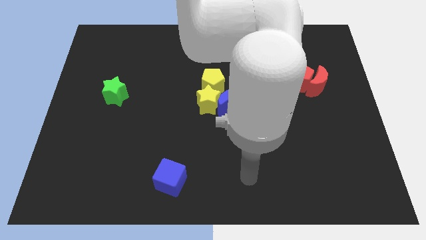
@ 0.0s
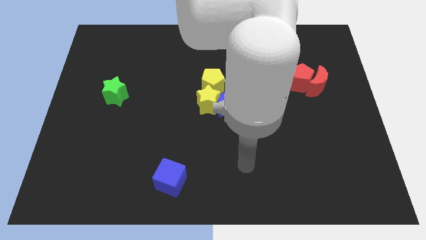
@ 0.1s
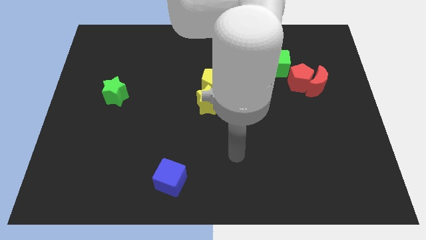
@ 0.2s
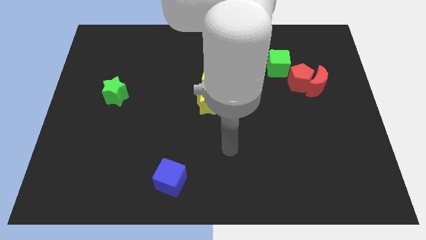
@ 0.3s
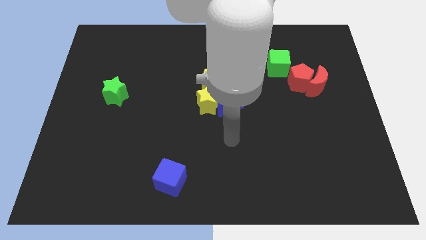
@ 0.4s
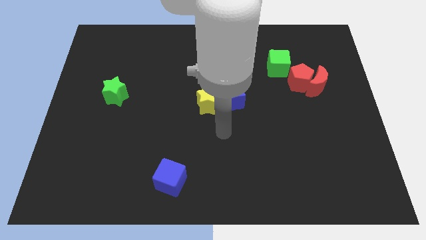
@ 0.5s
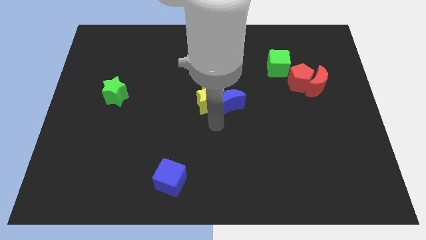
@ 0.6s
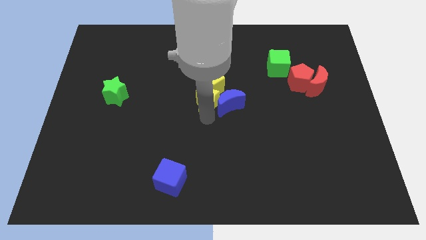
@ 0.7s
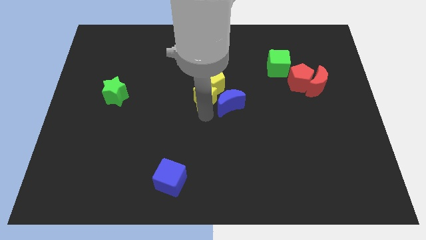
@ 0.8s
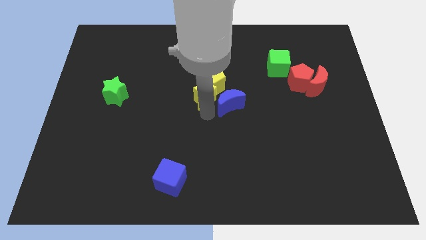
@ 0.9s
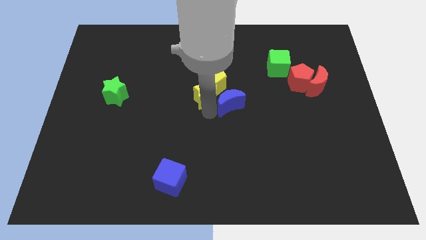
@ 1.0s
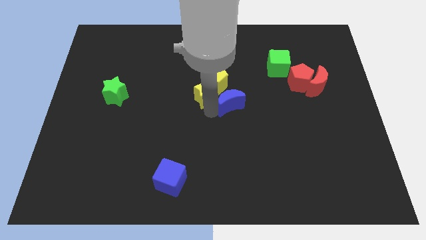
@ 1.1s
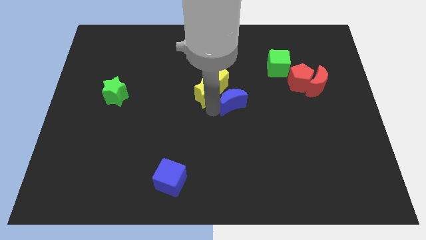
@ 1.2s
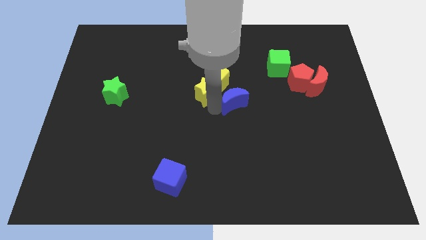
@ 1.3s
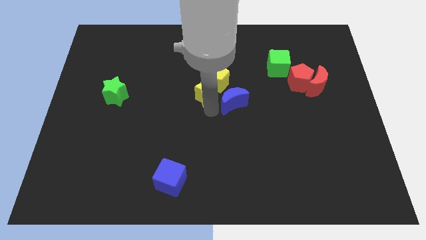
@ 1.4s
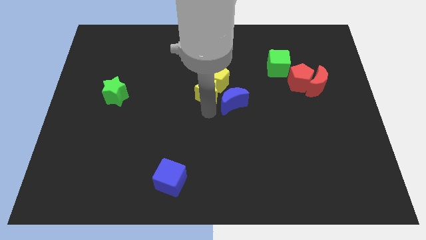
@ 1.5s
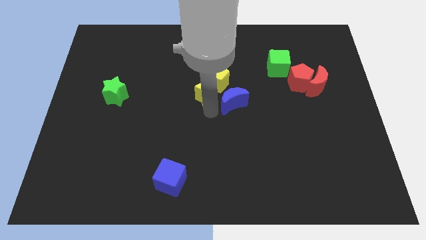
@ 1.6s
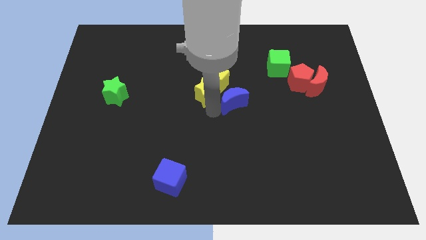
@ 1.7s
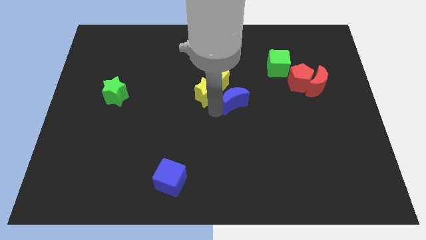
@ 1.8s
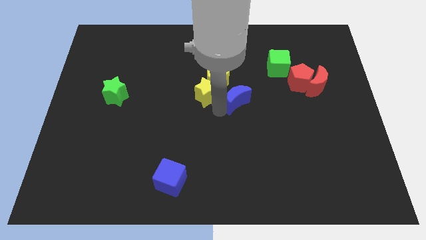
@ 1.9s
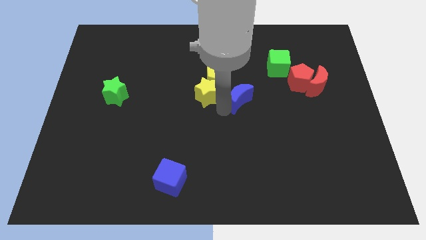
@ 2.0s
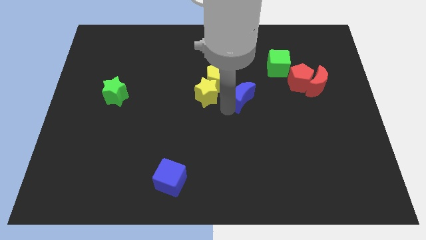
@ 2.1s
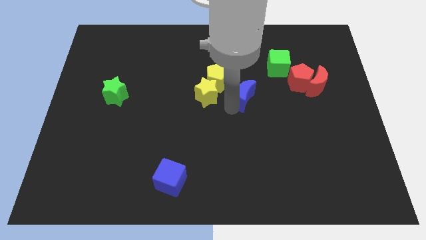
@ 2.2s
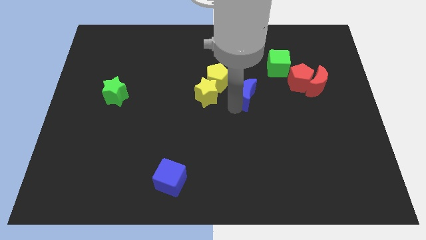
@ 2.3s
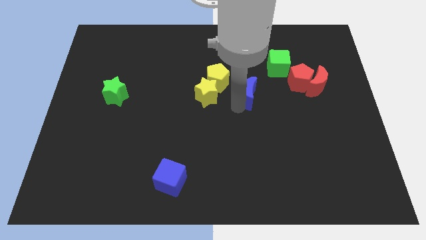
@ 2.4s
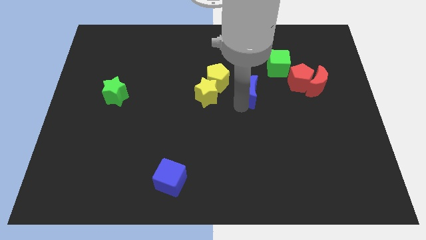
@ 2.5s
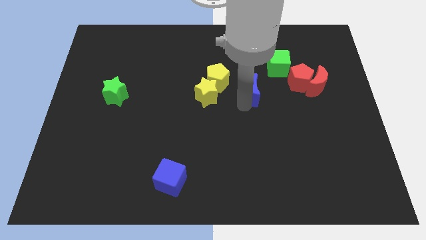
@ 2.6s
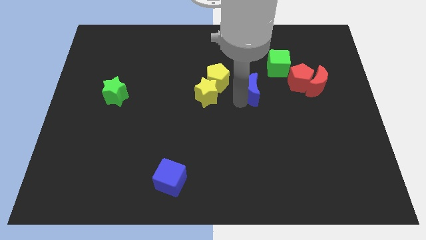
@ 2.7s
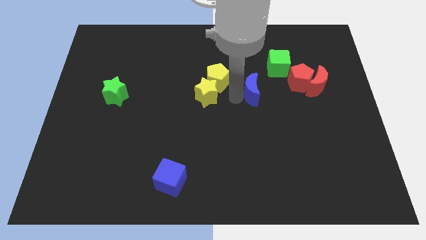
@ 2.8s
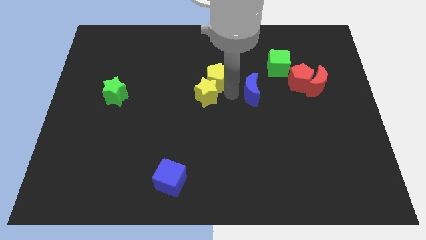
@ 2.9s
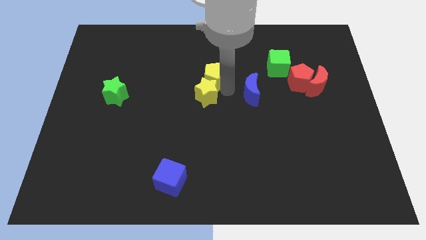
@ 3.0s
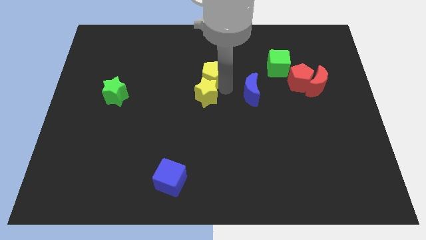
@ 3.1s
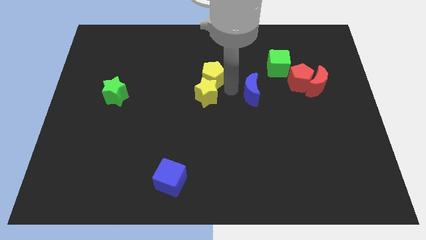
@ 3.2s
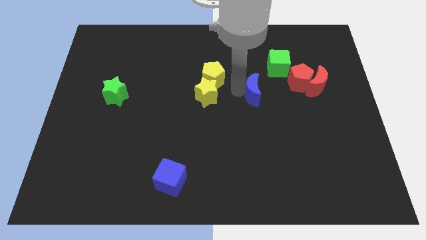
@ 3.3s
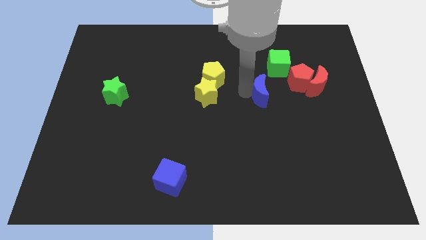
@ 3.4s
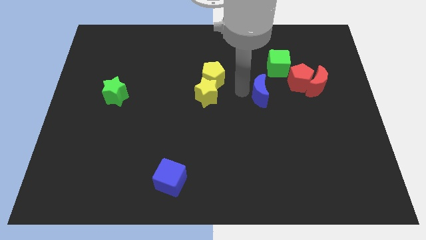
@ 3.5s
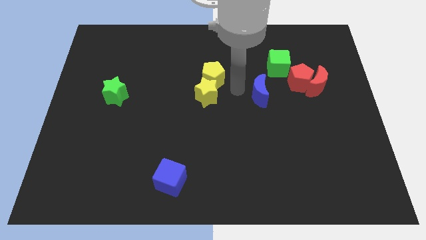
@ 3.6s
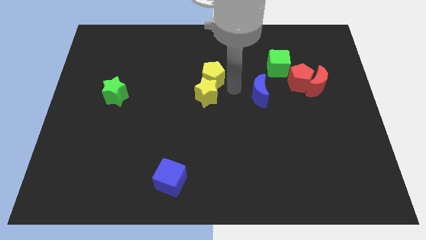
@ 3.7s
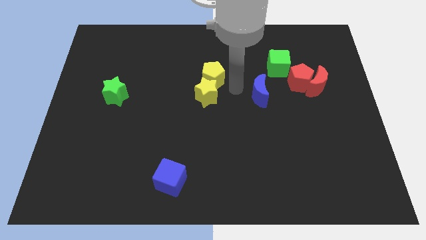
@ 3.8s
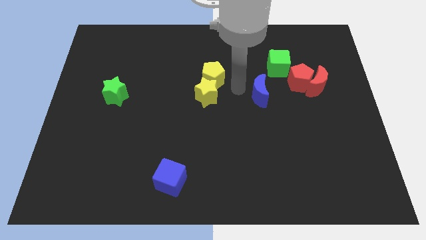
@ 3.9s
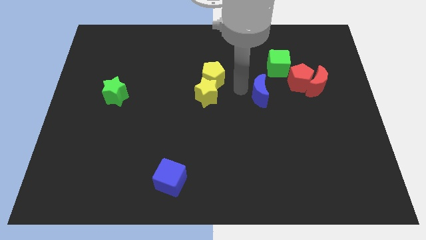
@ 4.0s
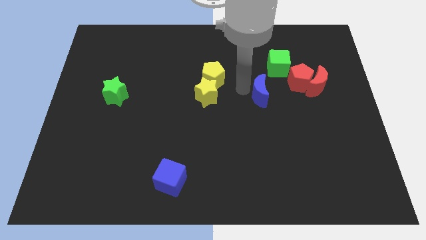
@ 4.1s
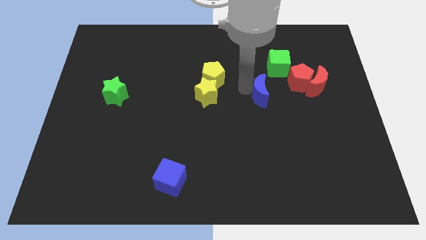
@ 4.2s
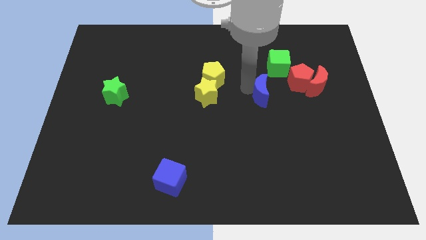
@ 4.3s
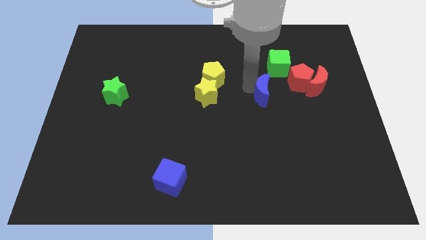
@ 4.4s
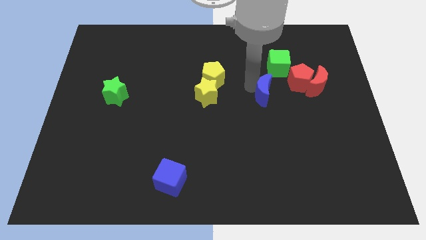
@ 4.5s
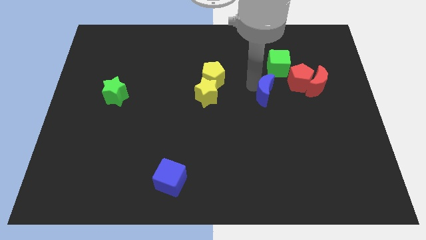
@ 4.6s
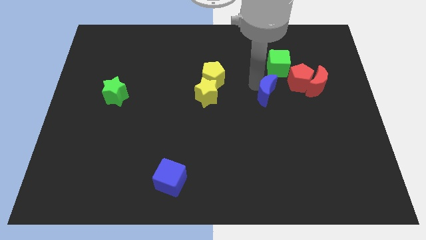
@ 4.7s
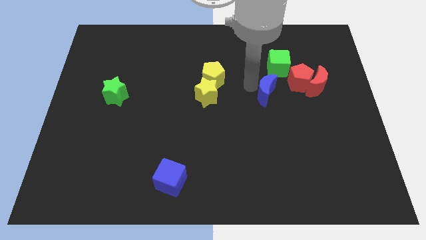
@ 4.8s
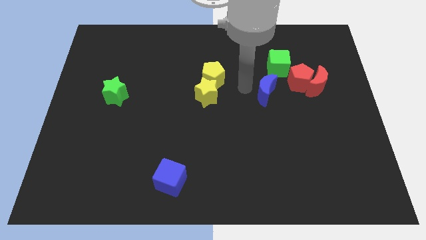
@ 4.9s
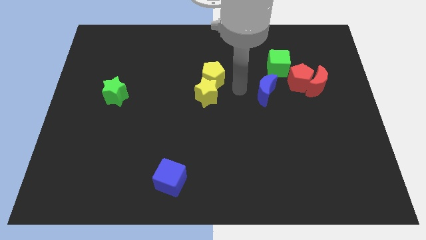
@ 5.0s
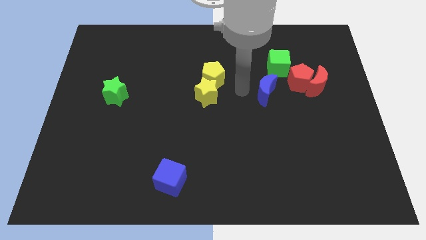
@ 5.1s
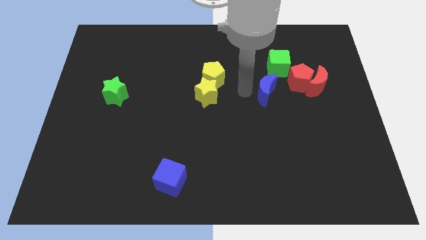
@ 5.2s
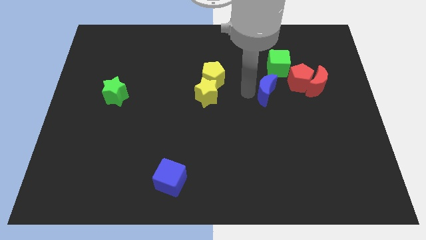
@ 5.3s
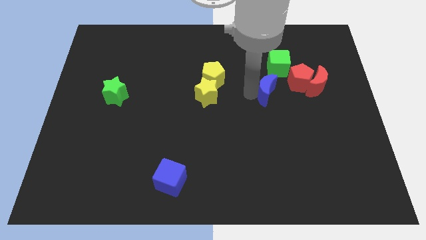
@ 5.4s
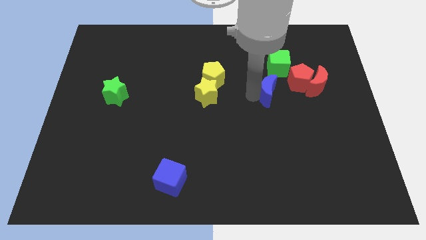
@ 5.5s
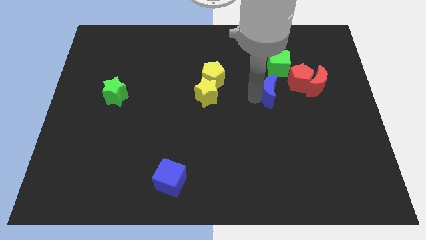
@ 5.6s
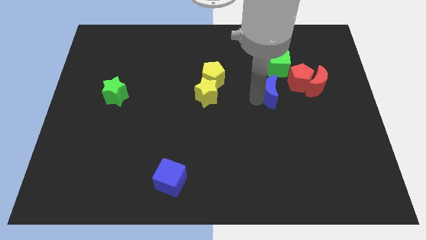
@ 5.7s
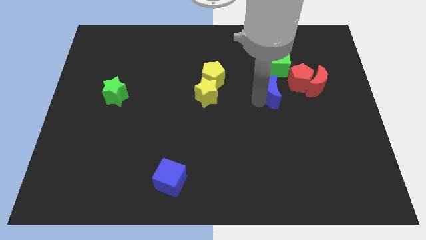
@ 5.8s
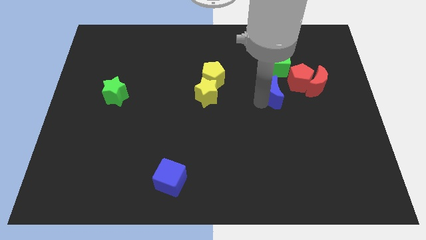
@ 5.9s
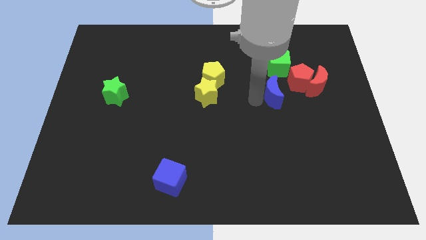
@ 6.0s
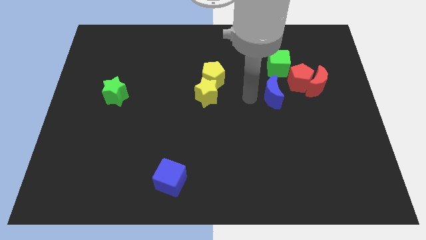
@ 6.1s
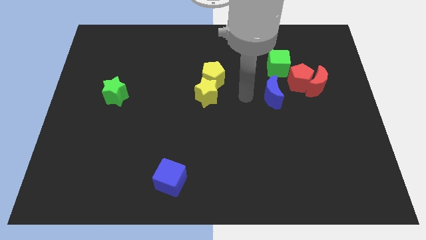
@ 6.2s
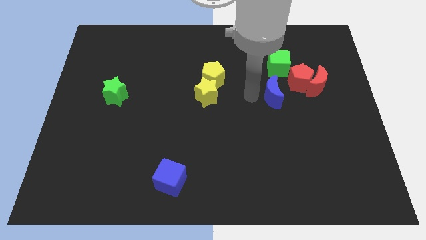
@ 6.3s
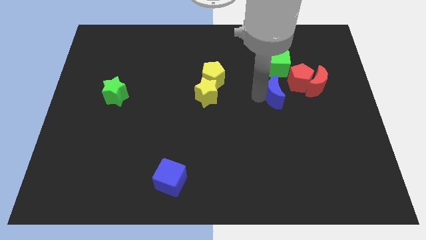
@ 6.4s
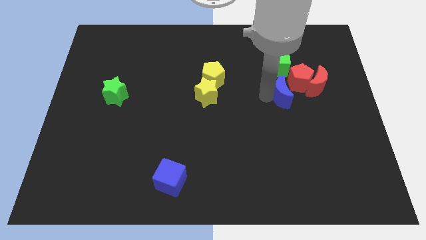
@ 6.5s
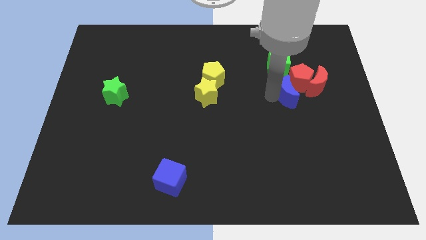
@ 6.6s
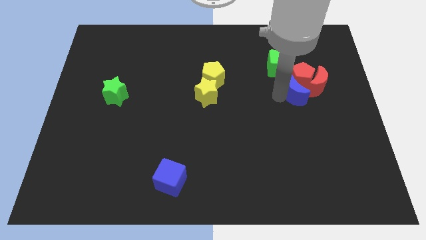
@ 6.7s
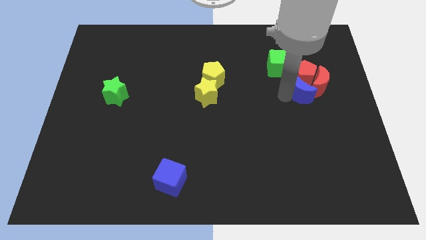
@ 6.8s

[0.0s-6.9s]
move the blue moon next to the red moon
